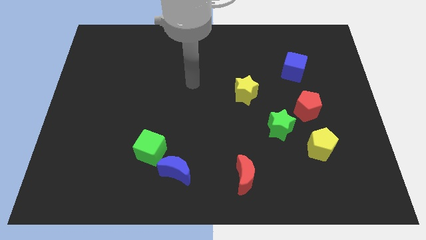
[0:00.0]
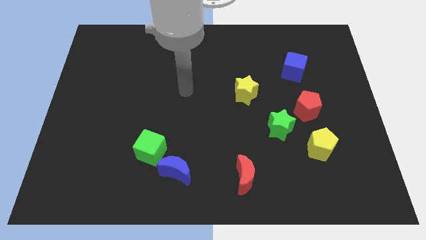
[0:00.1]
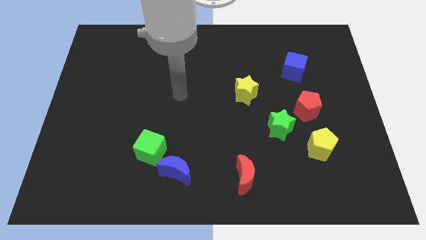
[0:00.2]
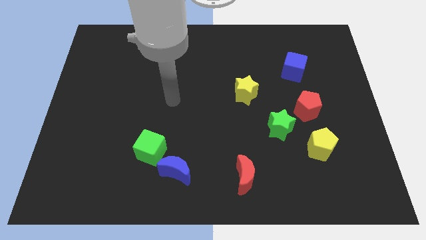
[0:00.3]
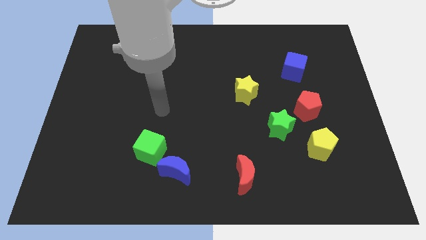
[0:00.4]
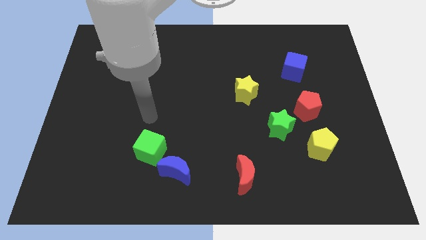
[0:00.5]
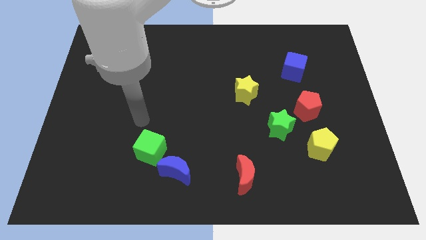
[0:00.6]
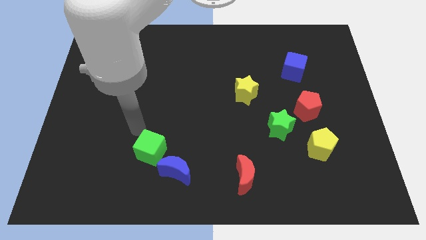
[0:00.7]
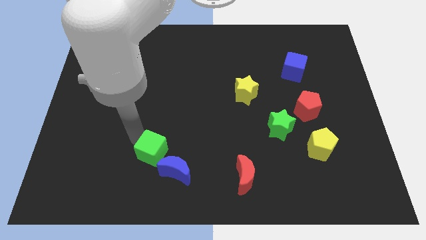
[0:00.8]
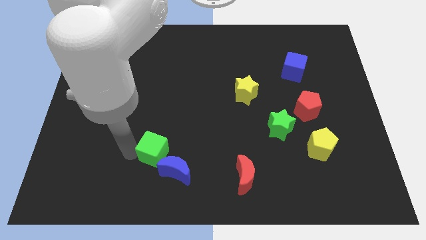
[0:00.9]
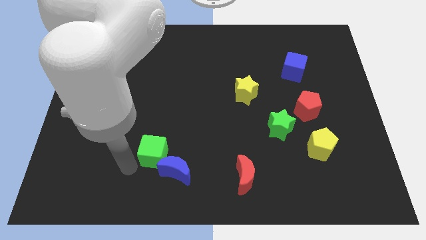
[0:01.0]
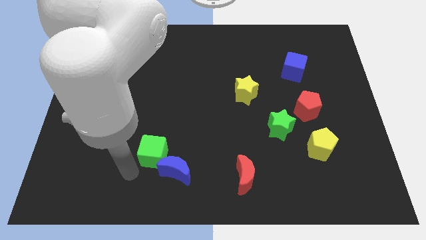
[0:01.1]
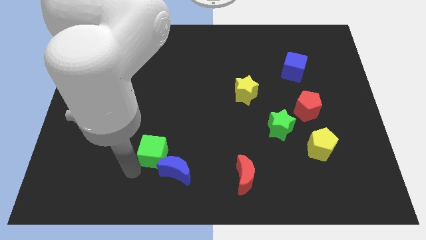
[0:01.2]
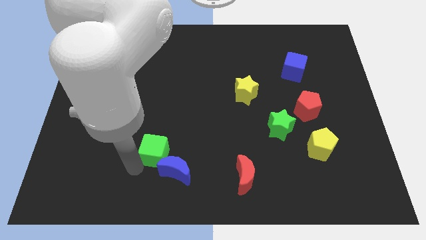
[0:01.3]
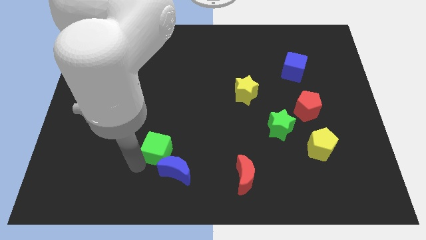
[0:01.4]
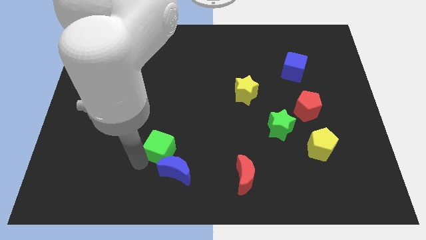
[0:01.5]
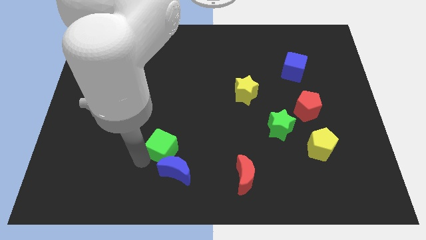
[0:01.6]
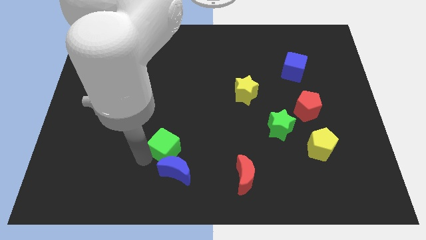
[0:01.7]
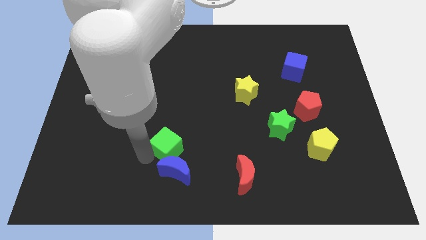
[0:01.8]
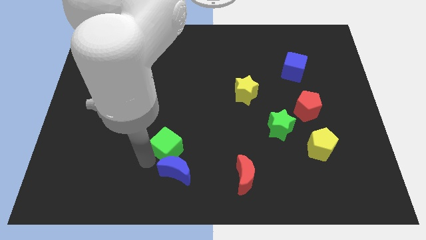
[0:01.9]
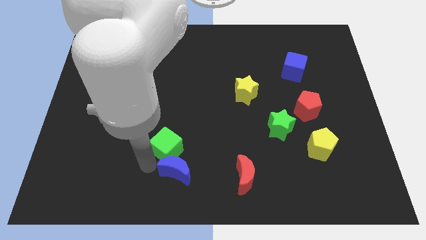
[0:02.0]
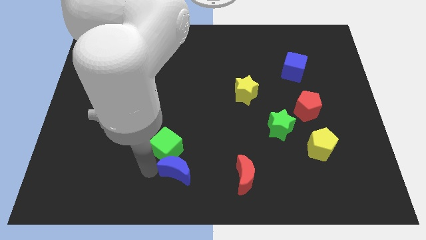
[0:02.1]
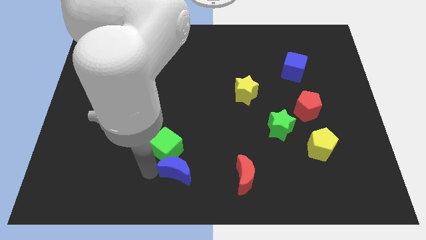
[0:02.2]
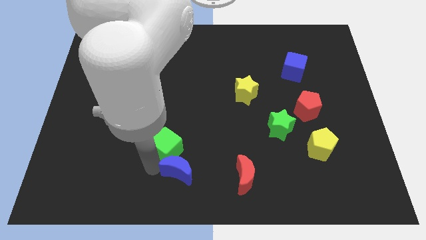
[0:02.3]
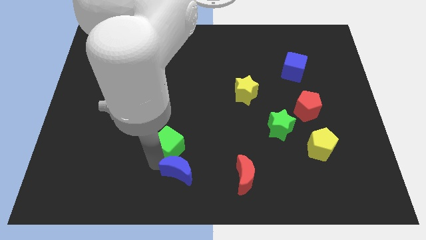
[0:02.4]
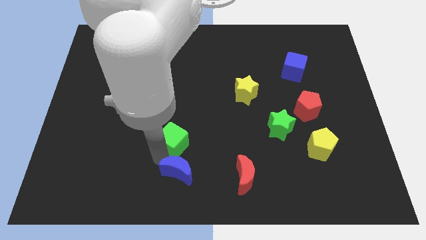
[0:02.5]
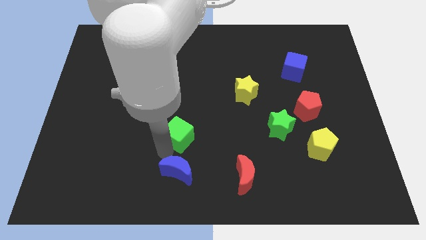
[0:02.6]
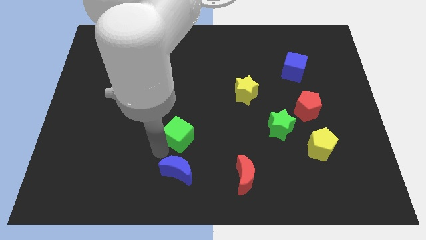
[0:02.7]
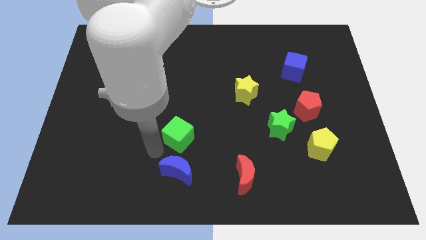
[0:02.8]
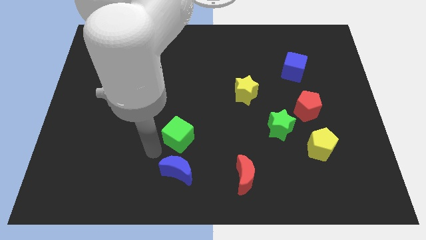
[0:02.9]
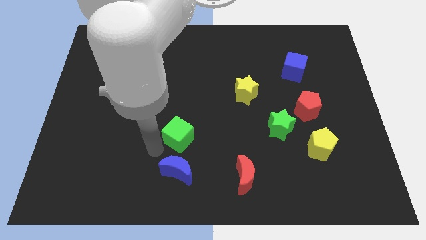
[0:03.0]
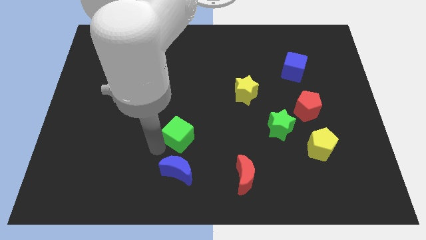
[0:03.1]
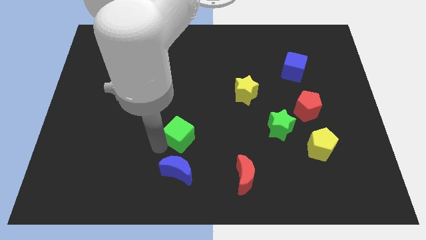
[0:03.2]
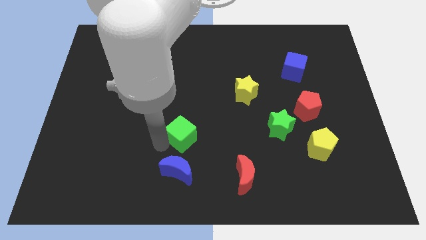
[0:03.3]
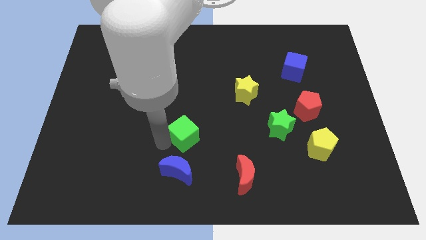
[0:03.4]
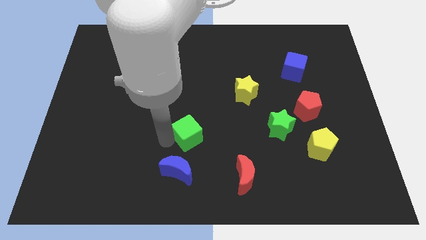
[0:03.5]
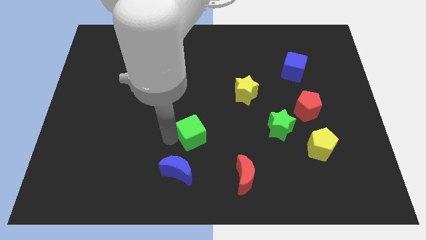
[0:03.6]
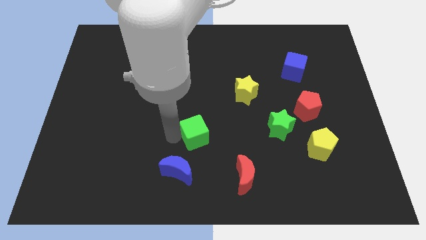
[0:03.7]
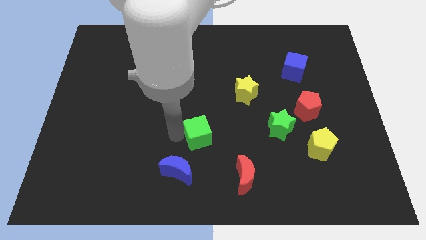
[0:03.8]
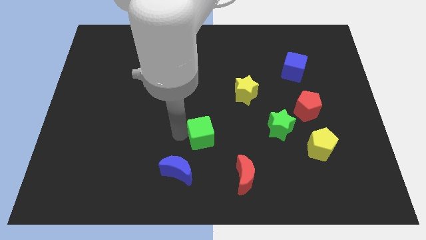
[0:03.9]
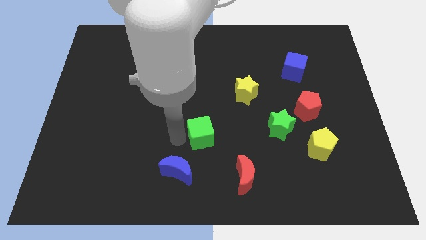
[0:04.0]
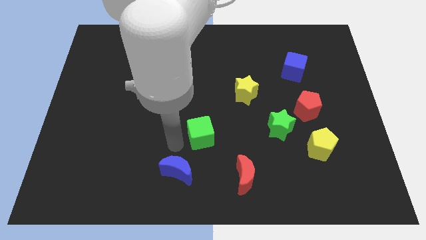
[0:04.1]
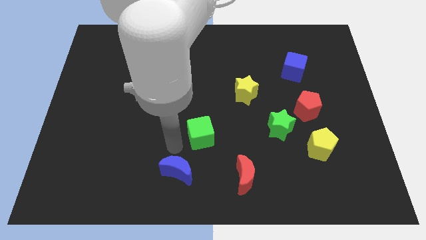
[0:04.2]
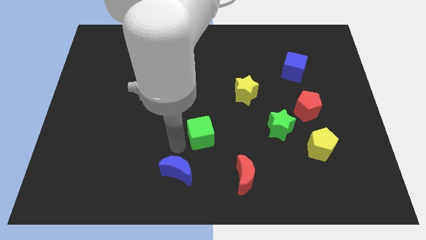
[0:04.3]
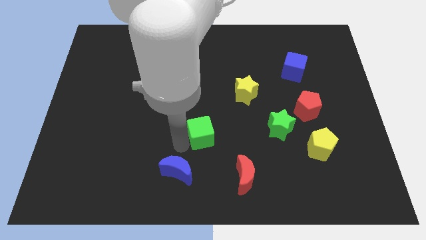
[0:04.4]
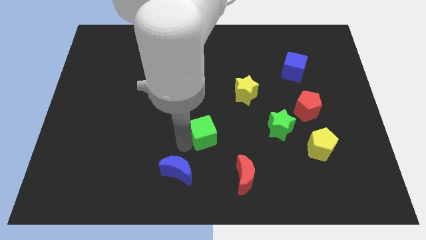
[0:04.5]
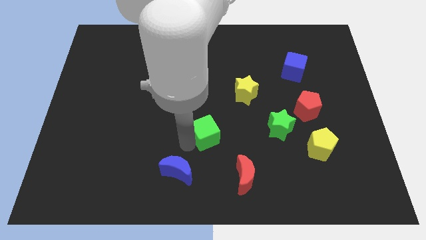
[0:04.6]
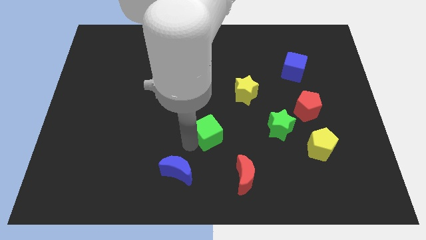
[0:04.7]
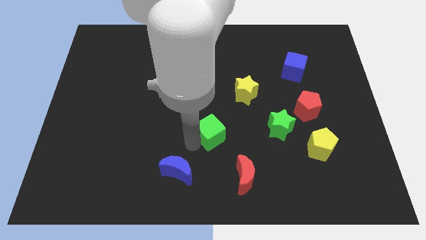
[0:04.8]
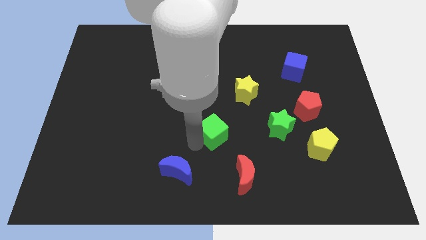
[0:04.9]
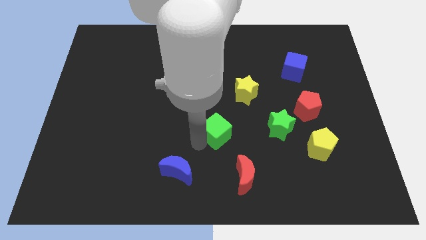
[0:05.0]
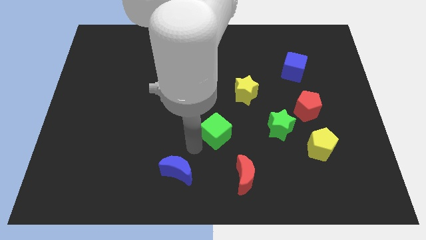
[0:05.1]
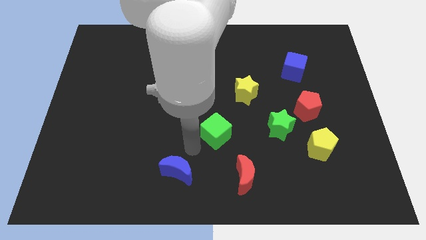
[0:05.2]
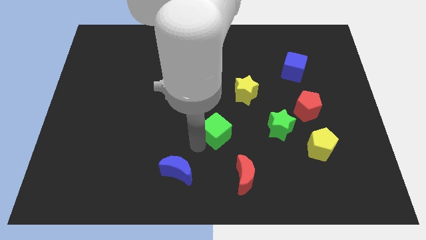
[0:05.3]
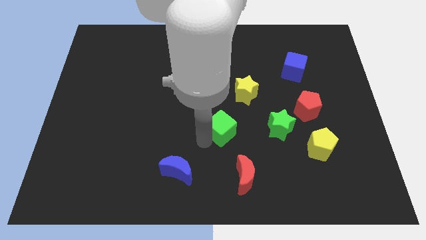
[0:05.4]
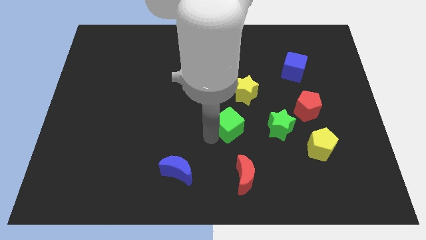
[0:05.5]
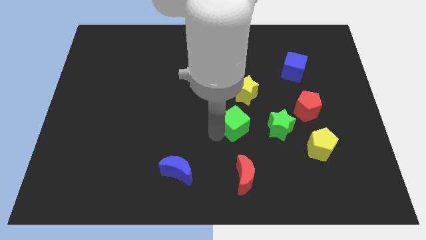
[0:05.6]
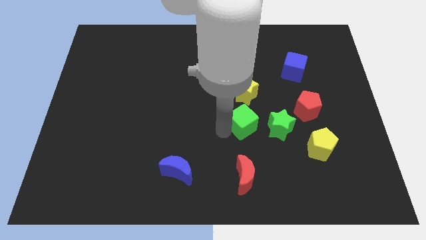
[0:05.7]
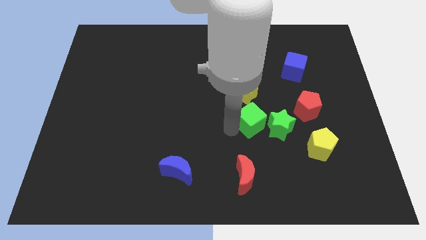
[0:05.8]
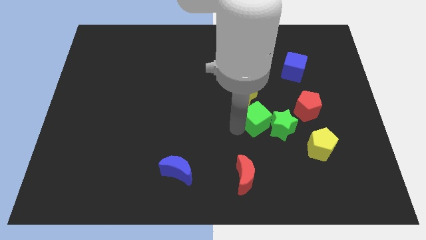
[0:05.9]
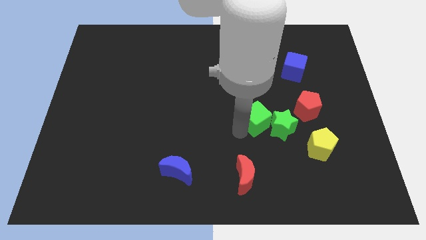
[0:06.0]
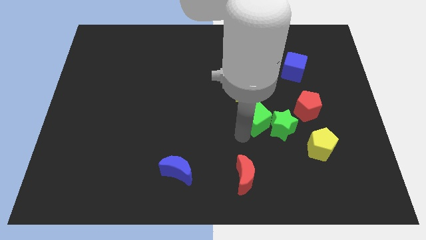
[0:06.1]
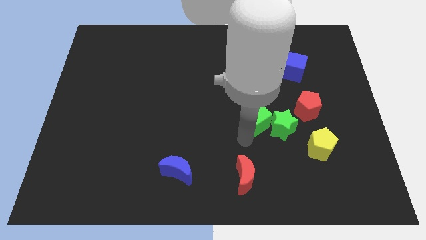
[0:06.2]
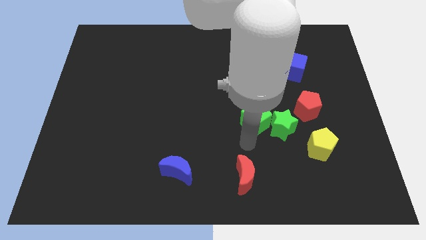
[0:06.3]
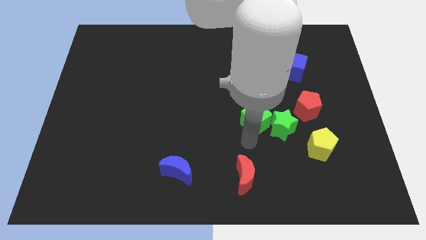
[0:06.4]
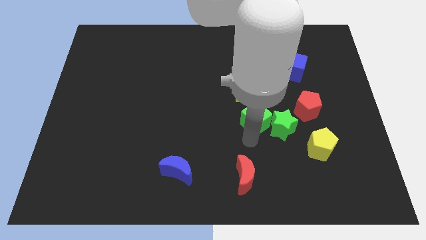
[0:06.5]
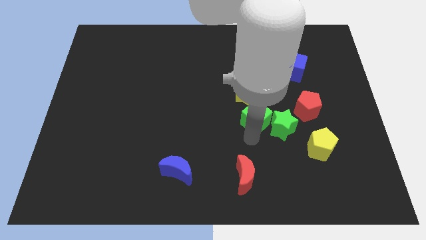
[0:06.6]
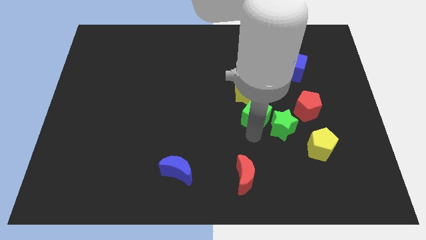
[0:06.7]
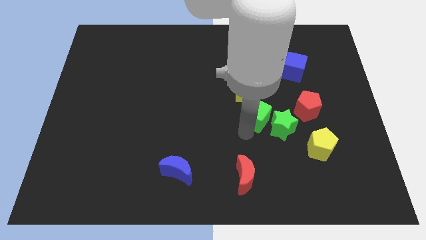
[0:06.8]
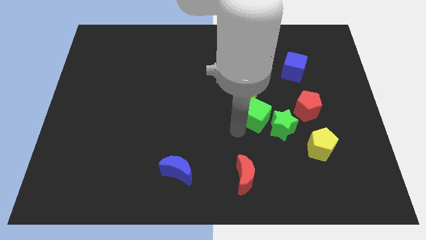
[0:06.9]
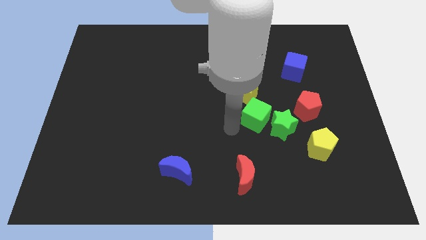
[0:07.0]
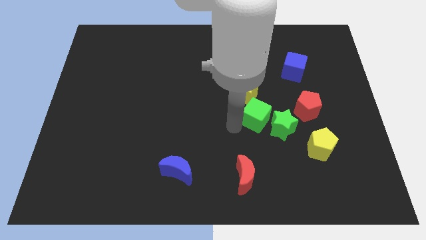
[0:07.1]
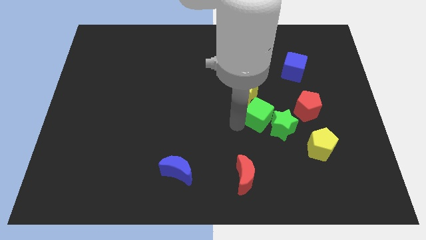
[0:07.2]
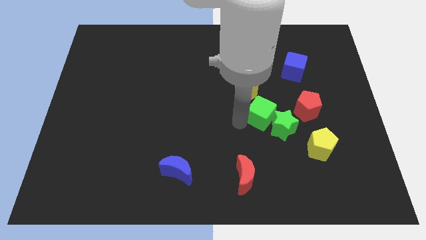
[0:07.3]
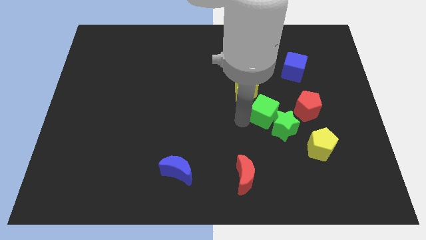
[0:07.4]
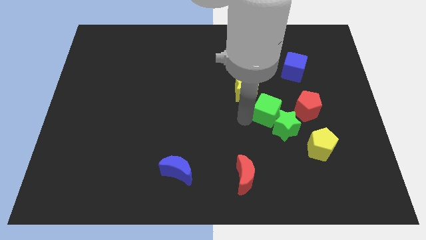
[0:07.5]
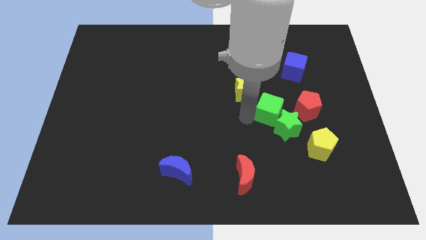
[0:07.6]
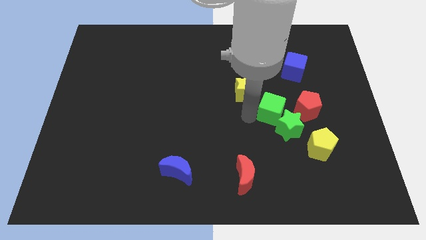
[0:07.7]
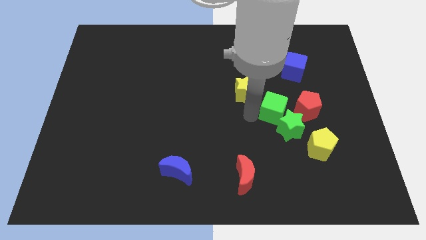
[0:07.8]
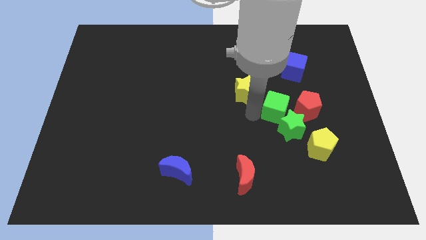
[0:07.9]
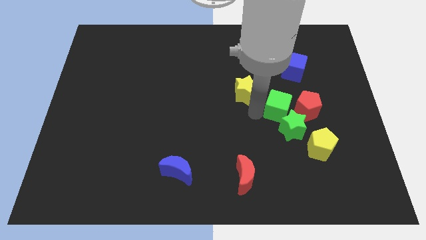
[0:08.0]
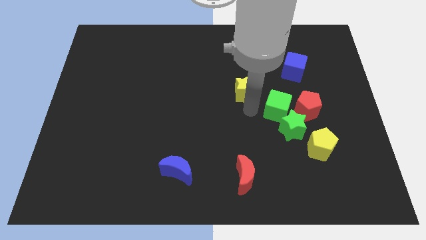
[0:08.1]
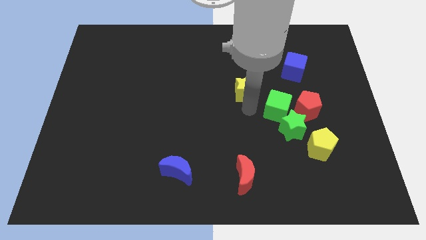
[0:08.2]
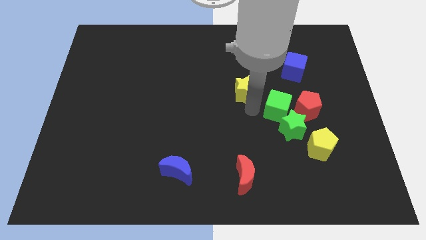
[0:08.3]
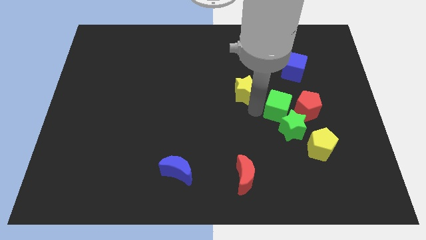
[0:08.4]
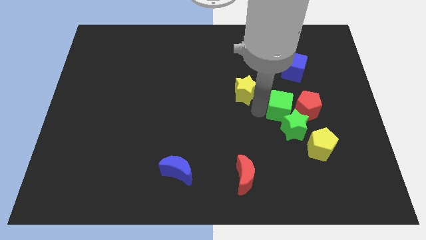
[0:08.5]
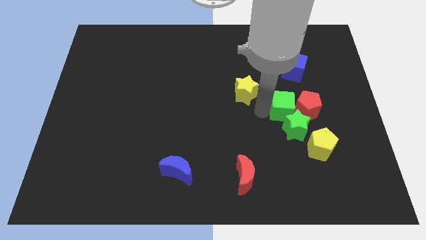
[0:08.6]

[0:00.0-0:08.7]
slide the green cube next to the red pentagon
